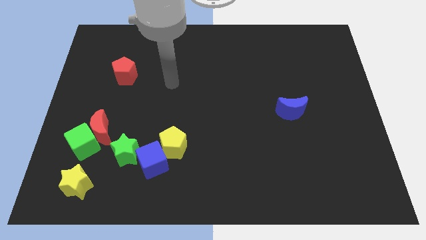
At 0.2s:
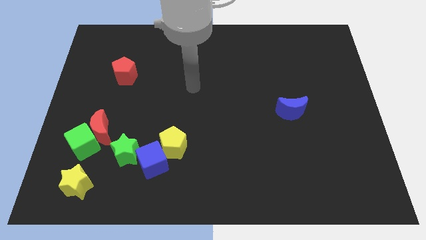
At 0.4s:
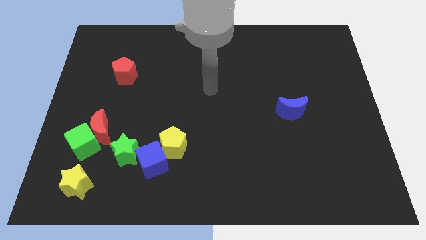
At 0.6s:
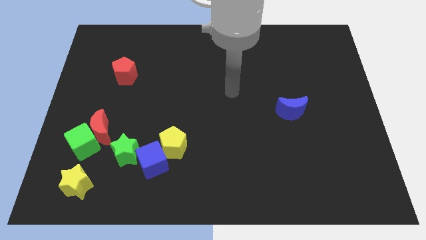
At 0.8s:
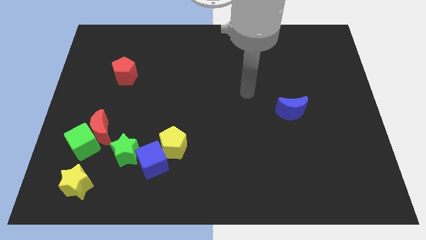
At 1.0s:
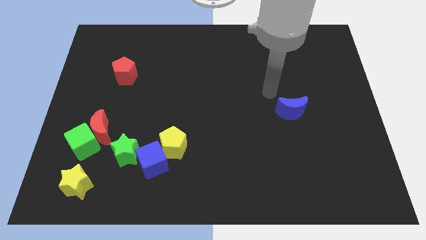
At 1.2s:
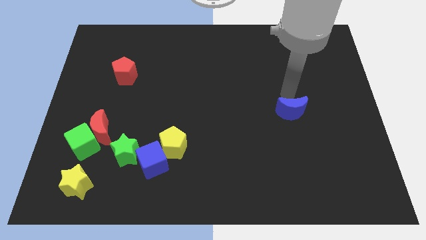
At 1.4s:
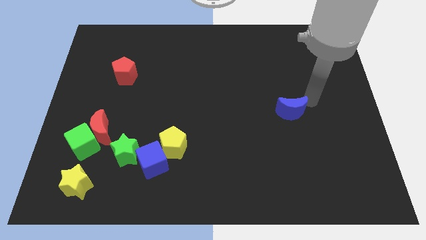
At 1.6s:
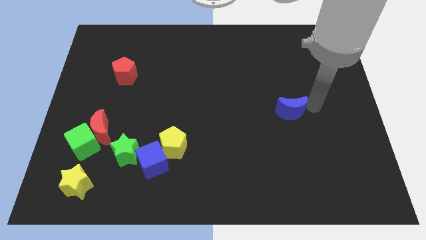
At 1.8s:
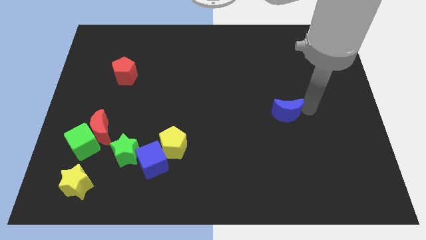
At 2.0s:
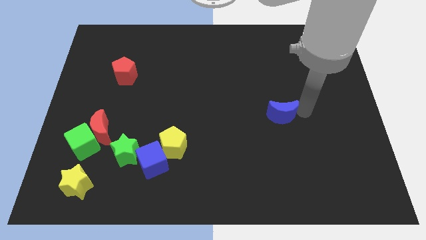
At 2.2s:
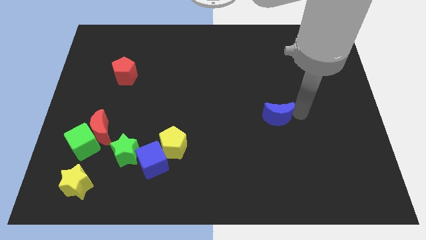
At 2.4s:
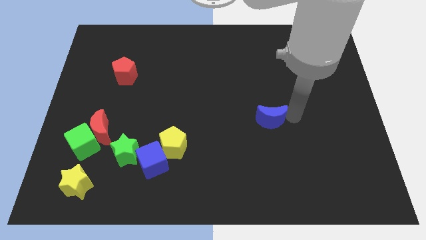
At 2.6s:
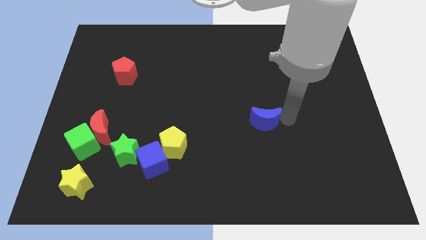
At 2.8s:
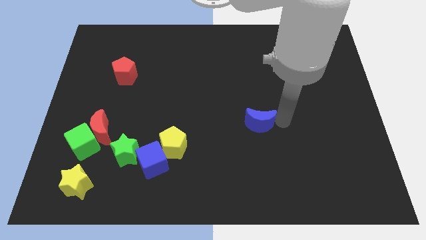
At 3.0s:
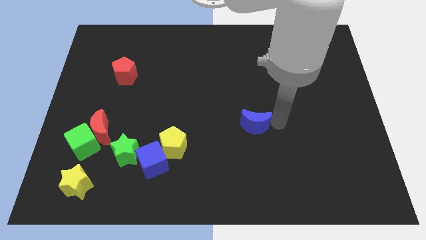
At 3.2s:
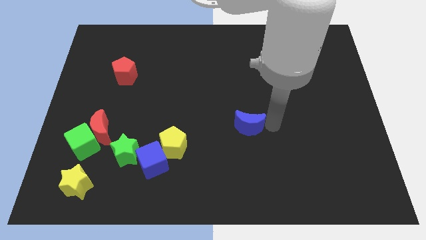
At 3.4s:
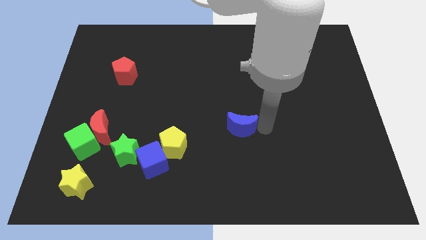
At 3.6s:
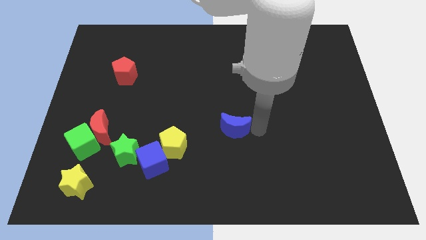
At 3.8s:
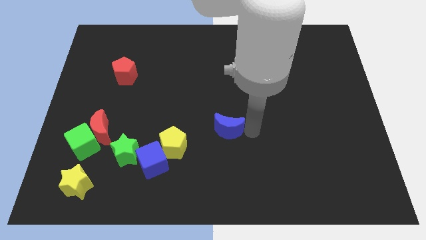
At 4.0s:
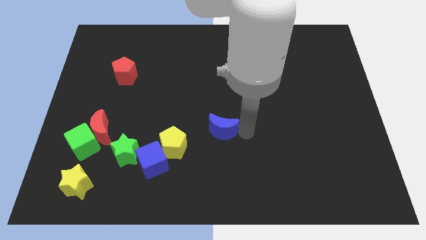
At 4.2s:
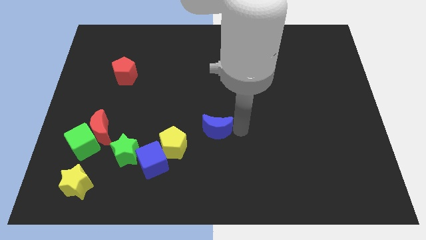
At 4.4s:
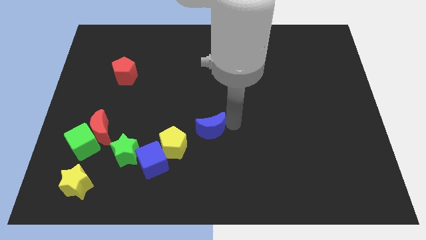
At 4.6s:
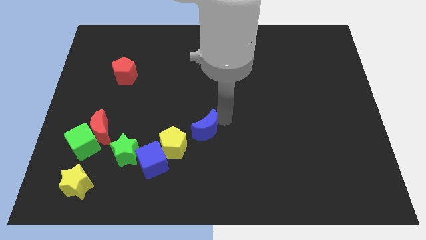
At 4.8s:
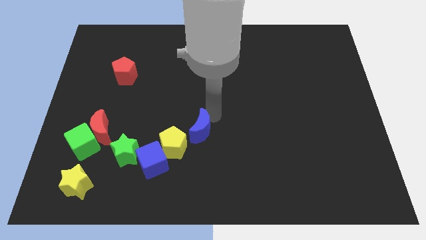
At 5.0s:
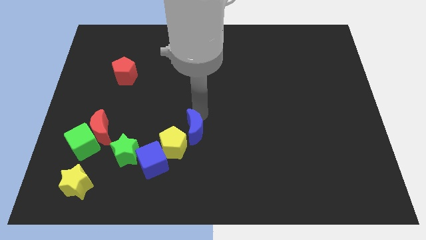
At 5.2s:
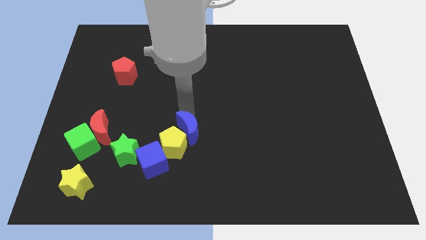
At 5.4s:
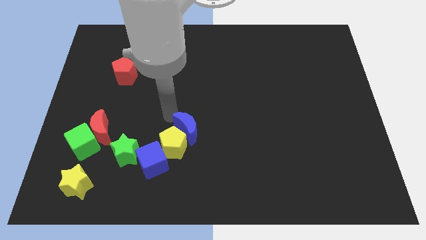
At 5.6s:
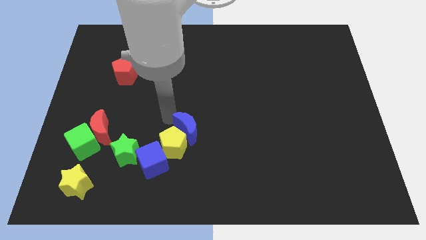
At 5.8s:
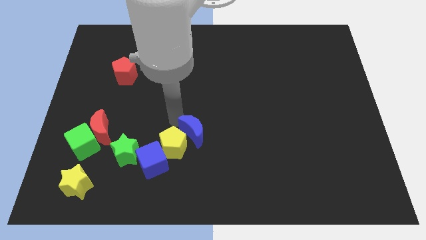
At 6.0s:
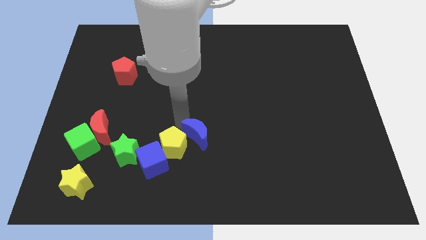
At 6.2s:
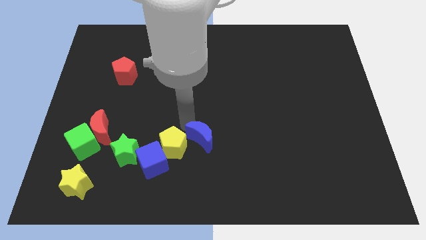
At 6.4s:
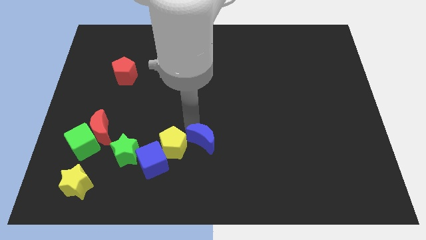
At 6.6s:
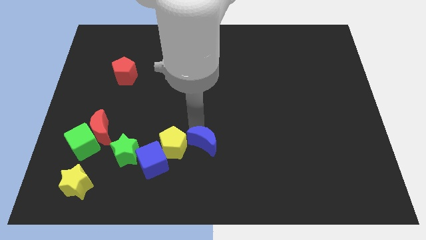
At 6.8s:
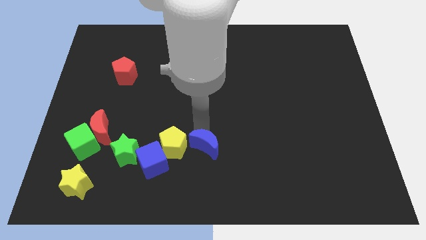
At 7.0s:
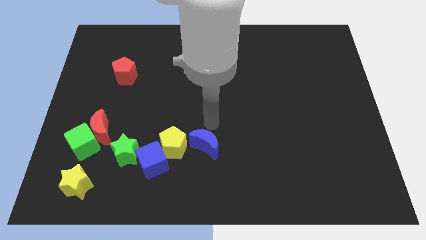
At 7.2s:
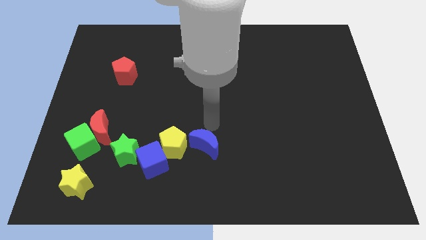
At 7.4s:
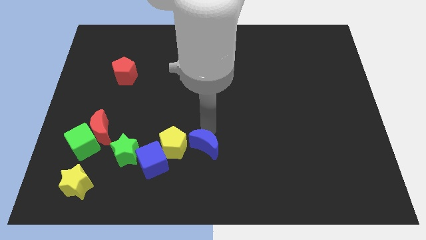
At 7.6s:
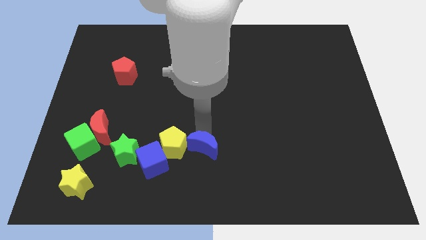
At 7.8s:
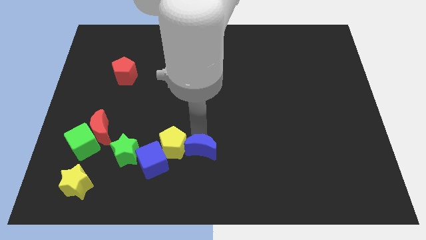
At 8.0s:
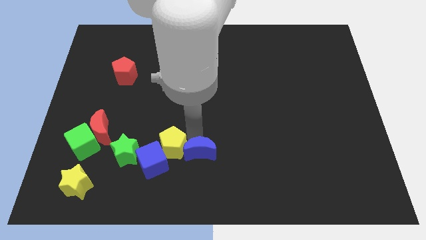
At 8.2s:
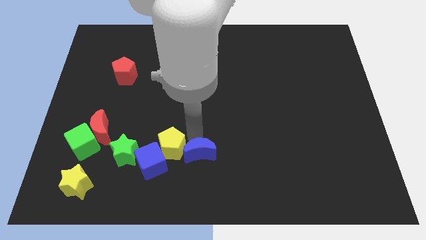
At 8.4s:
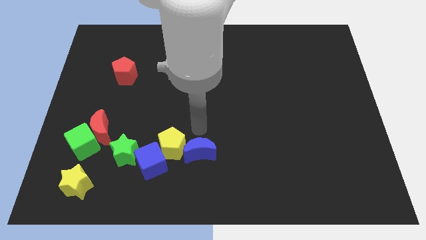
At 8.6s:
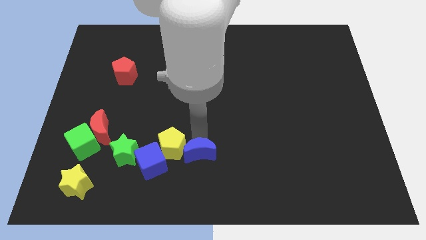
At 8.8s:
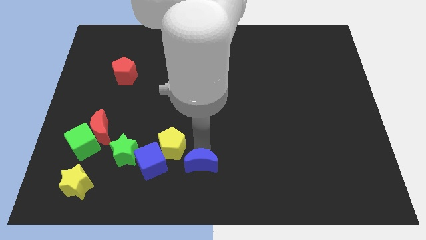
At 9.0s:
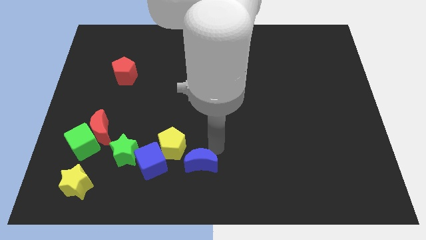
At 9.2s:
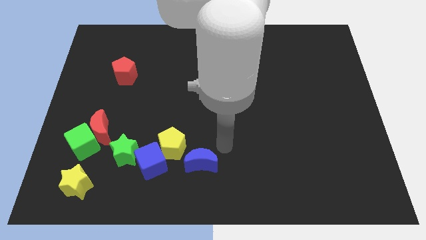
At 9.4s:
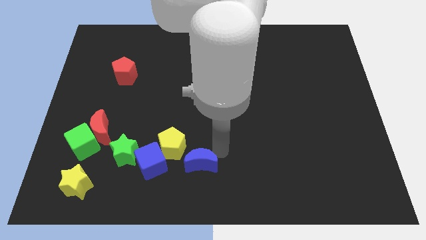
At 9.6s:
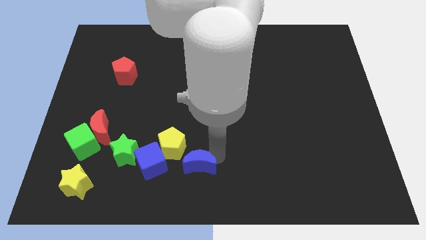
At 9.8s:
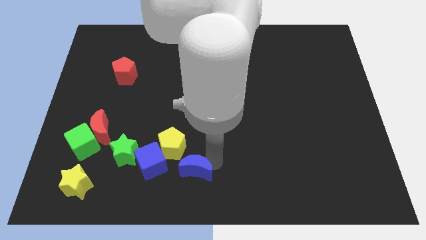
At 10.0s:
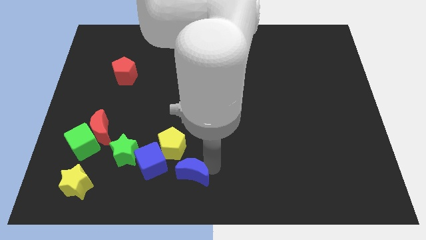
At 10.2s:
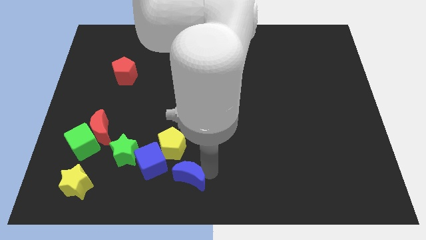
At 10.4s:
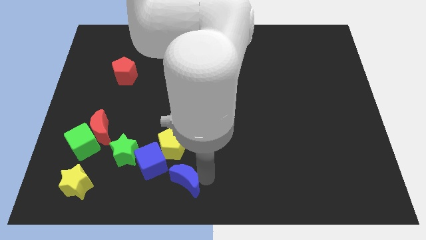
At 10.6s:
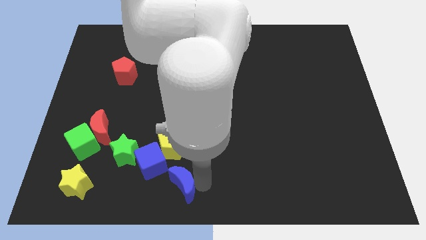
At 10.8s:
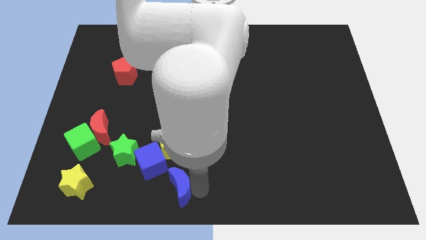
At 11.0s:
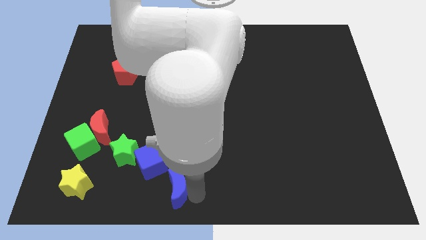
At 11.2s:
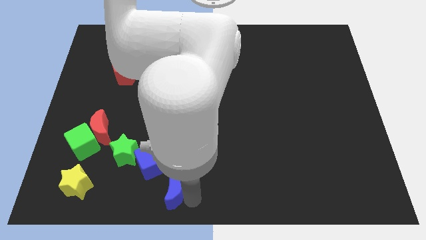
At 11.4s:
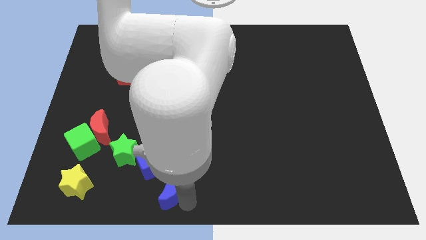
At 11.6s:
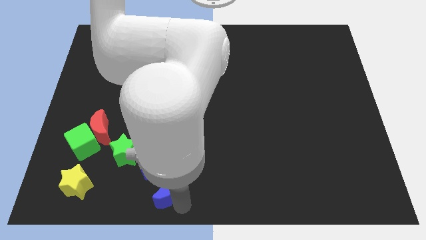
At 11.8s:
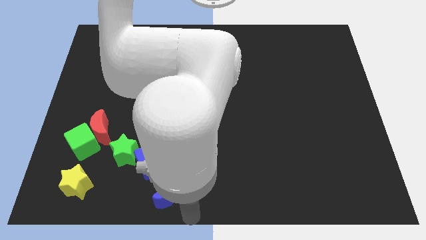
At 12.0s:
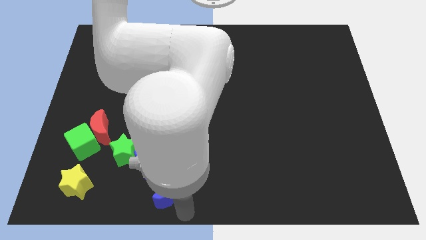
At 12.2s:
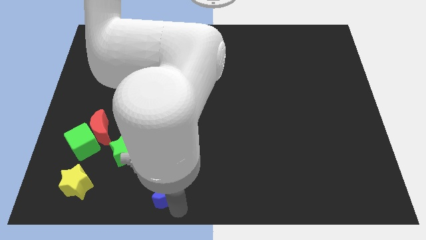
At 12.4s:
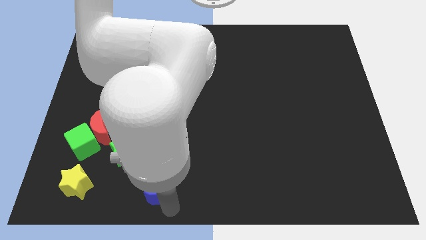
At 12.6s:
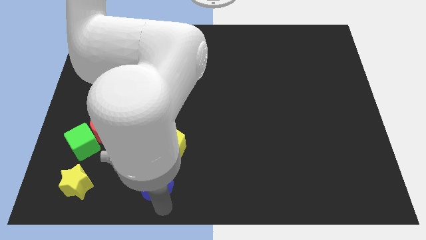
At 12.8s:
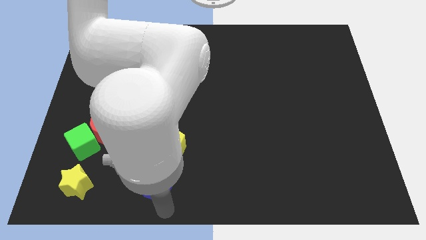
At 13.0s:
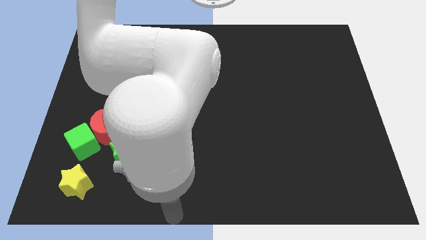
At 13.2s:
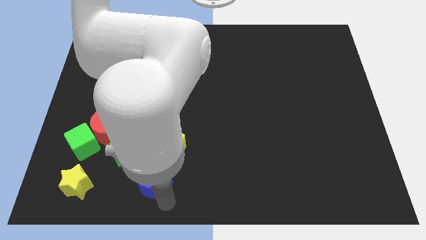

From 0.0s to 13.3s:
move the blue moon to the bottom left side of the yellow pentagon
